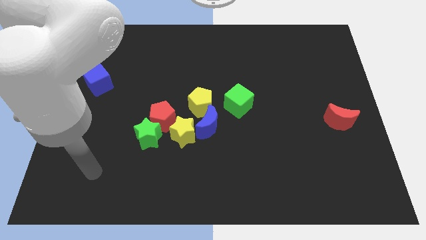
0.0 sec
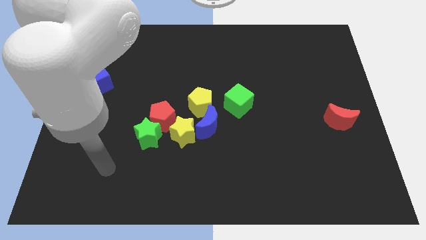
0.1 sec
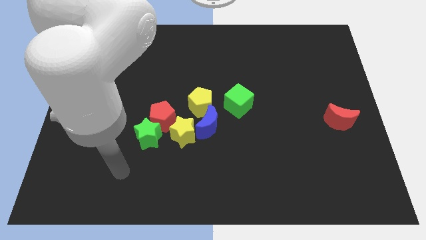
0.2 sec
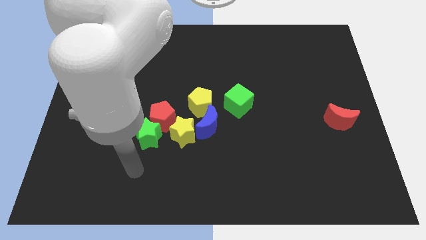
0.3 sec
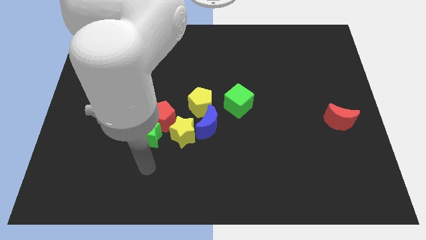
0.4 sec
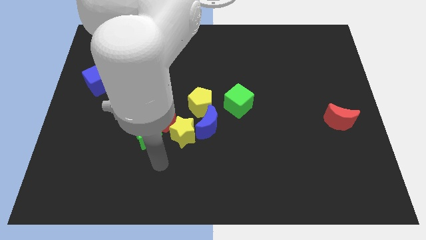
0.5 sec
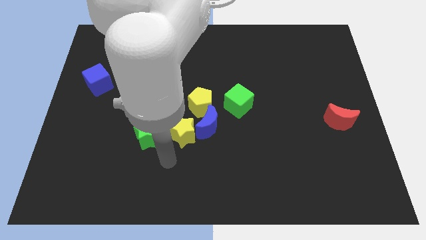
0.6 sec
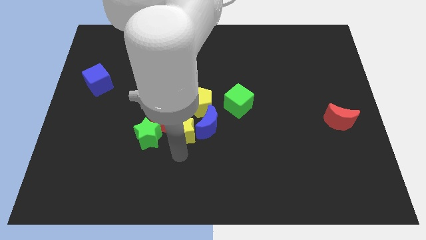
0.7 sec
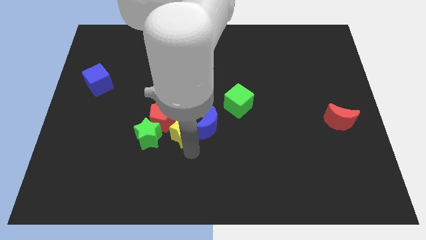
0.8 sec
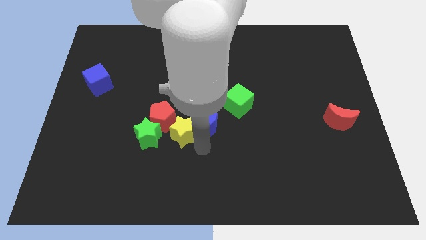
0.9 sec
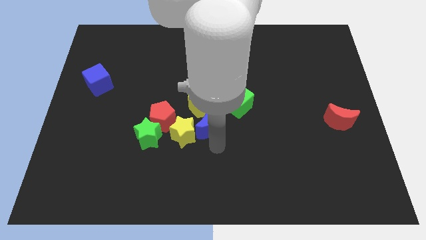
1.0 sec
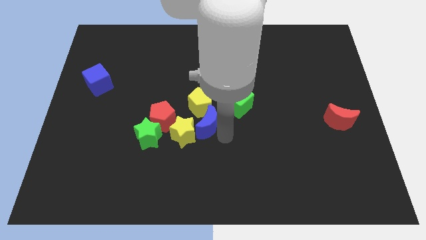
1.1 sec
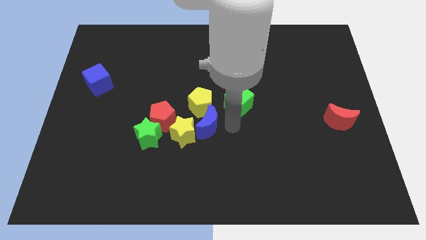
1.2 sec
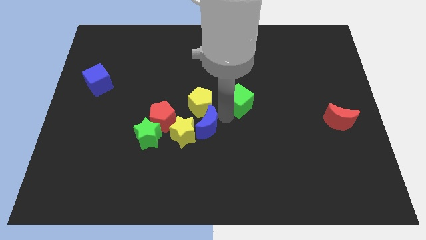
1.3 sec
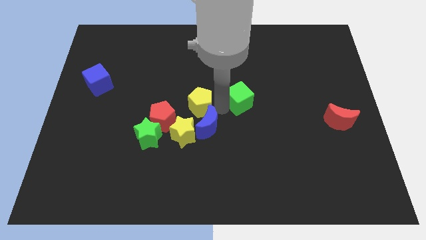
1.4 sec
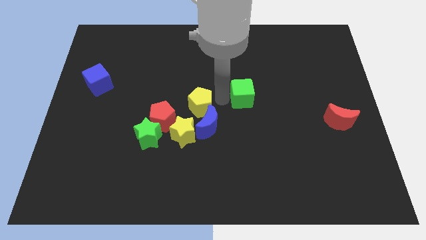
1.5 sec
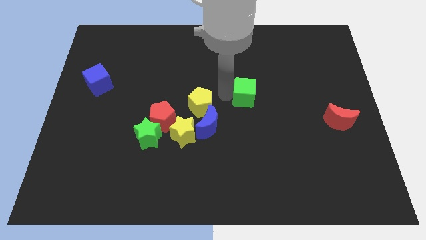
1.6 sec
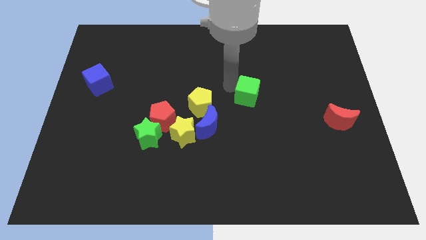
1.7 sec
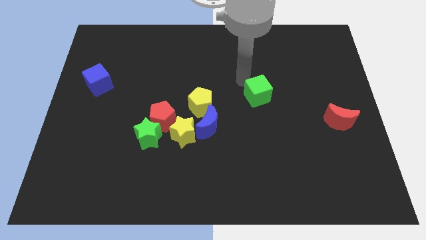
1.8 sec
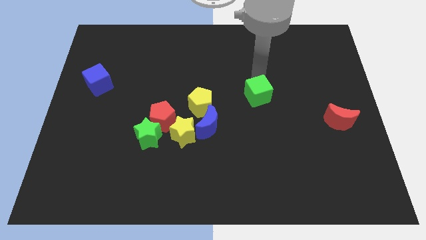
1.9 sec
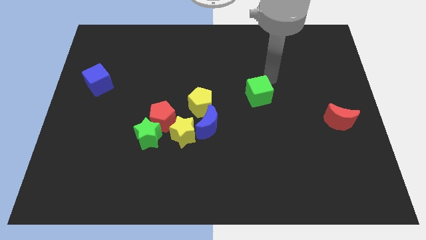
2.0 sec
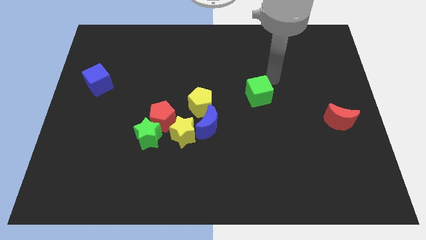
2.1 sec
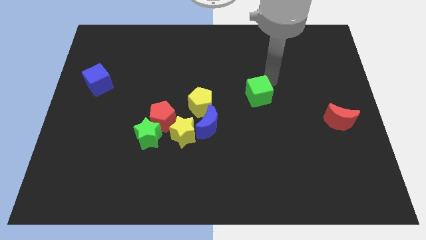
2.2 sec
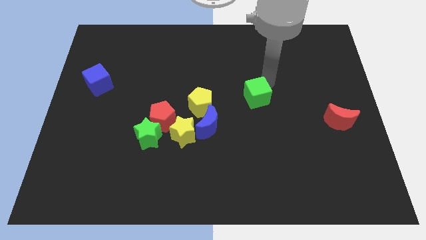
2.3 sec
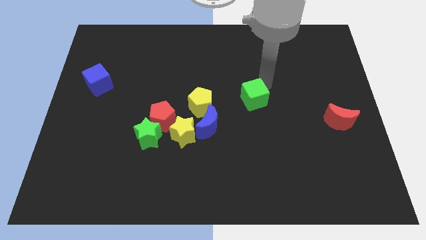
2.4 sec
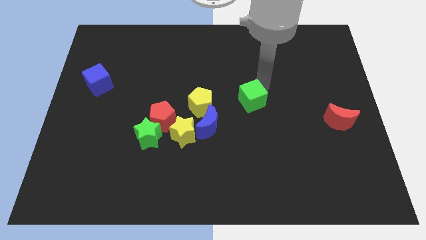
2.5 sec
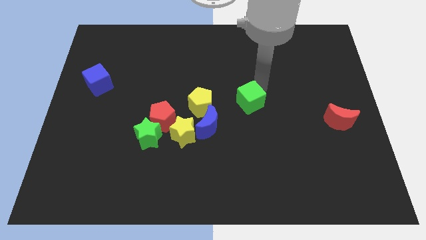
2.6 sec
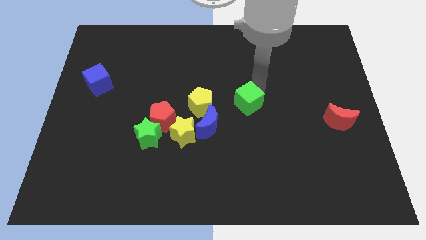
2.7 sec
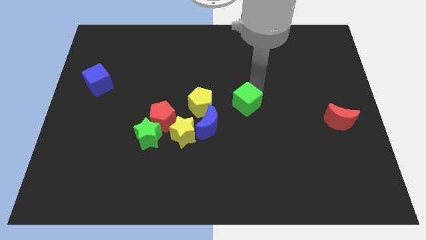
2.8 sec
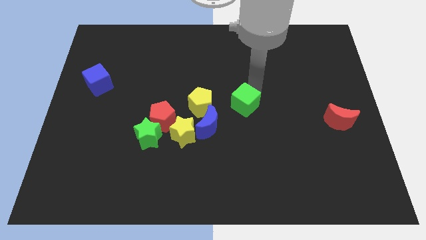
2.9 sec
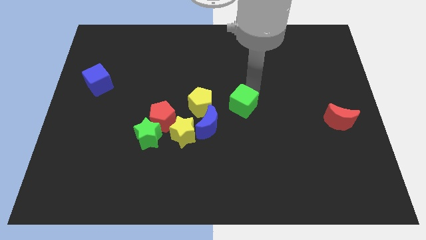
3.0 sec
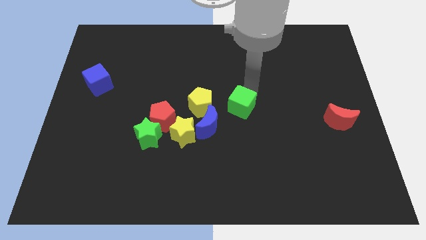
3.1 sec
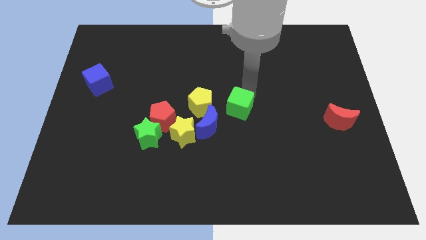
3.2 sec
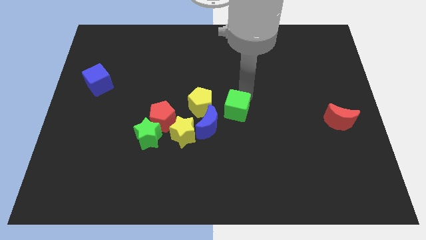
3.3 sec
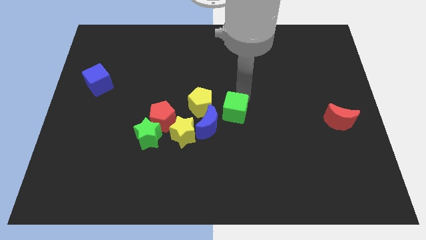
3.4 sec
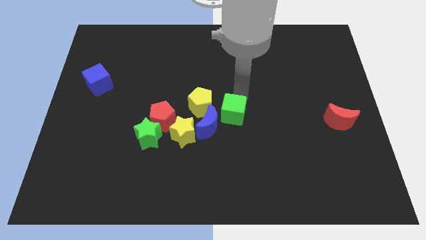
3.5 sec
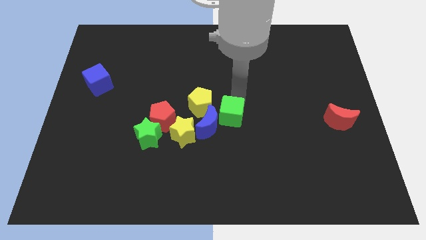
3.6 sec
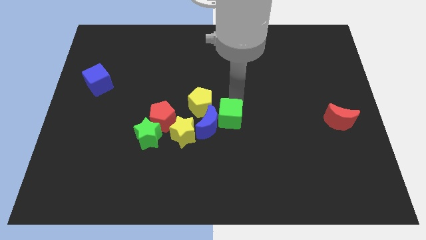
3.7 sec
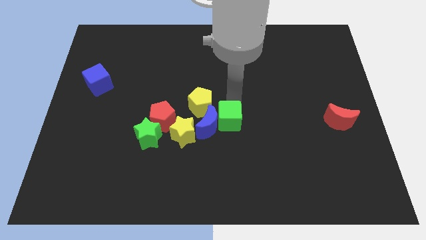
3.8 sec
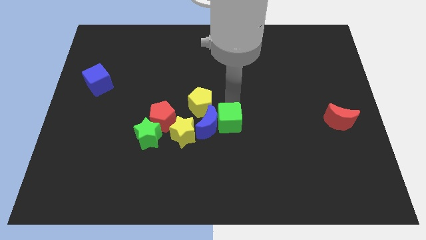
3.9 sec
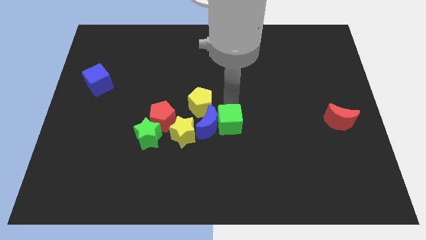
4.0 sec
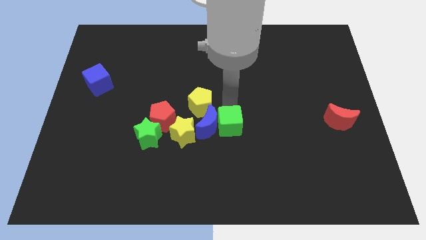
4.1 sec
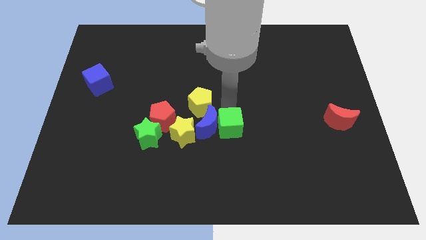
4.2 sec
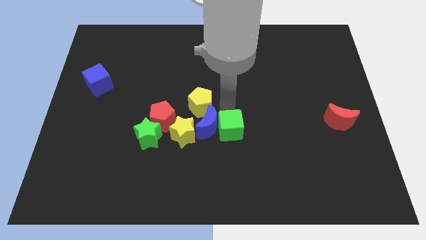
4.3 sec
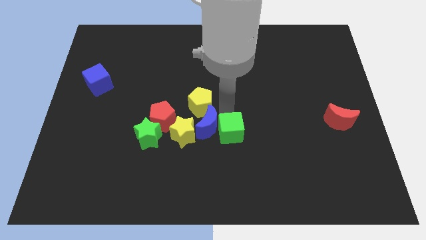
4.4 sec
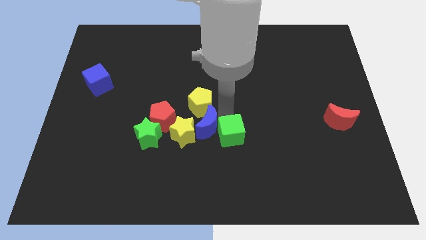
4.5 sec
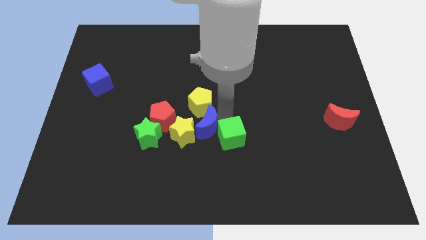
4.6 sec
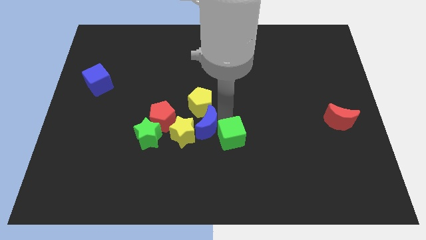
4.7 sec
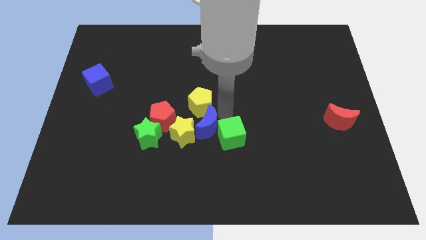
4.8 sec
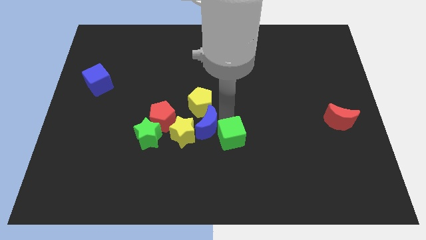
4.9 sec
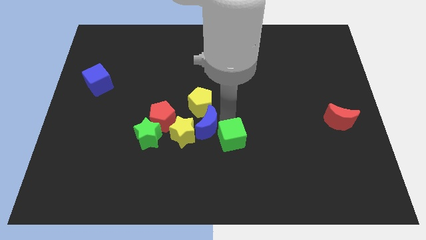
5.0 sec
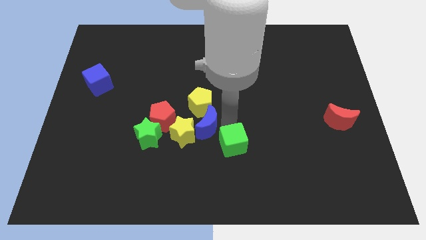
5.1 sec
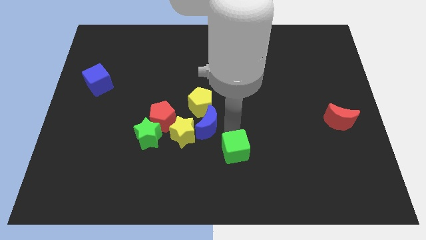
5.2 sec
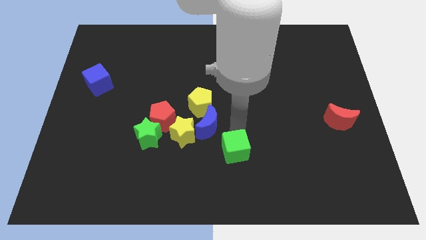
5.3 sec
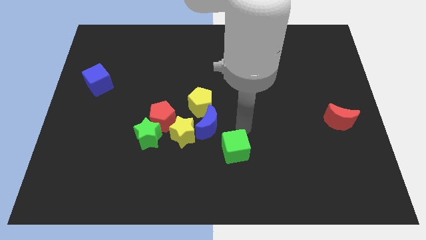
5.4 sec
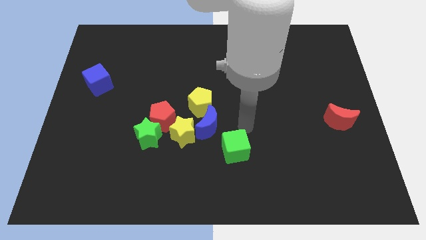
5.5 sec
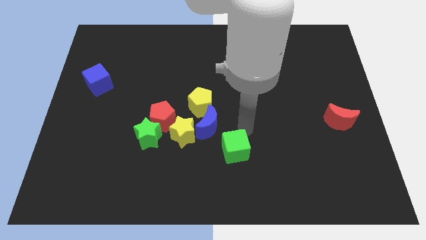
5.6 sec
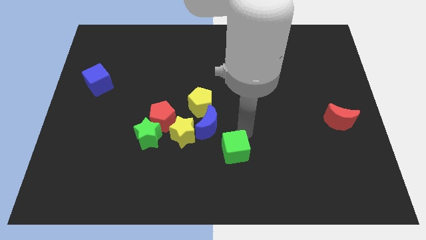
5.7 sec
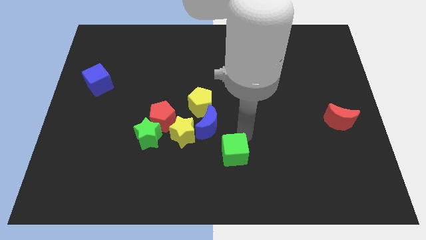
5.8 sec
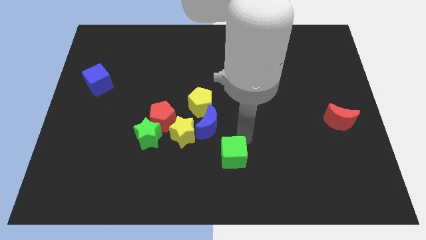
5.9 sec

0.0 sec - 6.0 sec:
put the green cube to the bottom

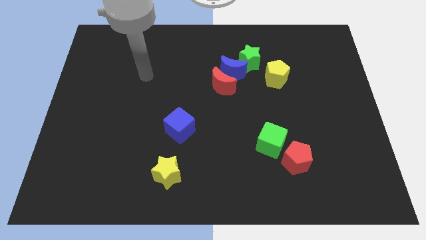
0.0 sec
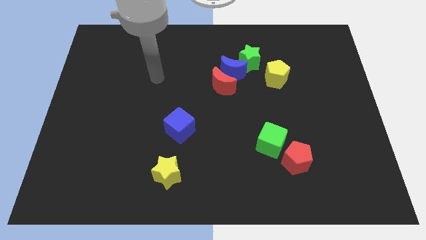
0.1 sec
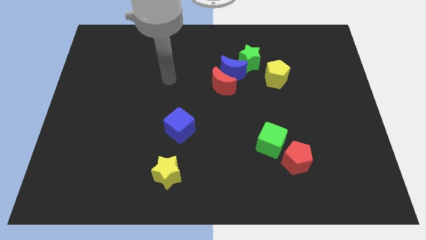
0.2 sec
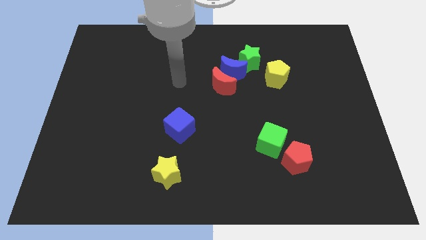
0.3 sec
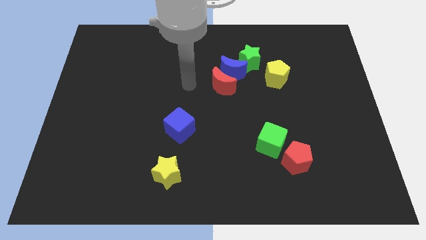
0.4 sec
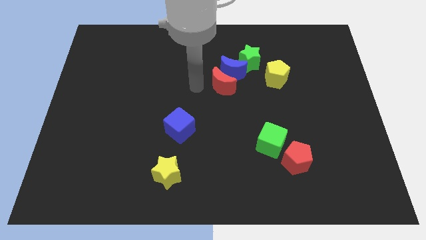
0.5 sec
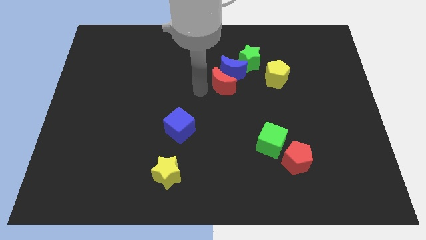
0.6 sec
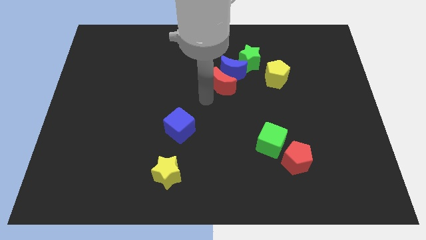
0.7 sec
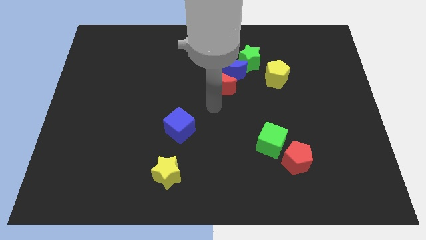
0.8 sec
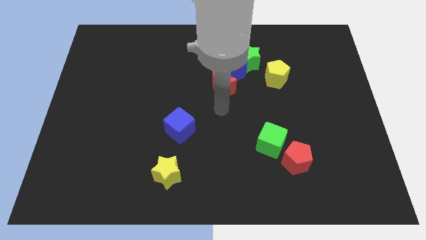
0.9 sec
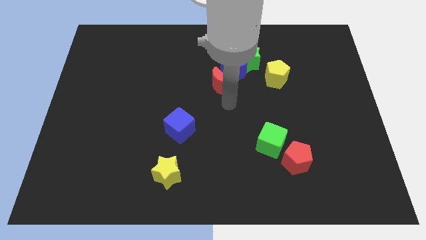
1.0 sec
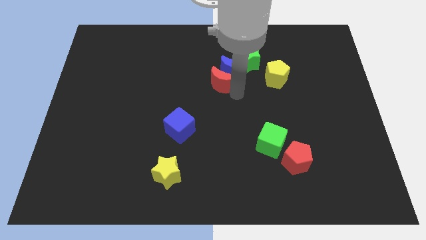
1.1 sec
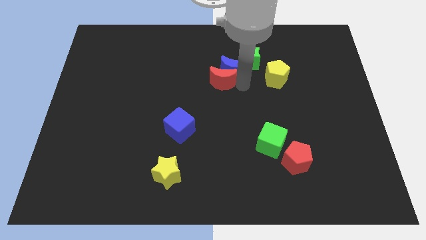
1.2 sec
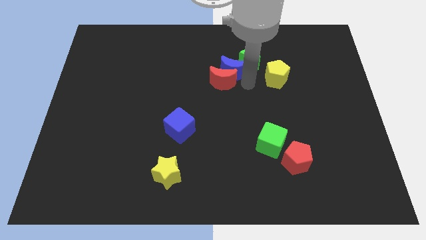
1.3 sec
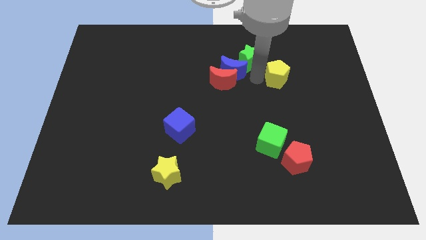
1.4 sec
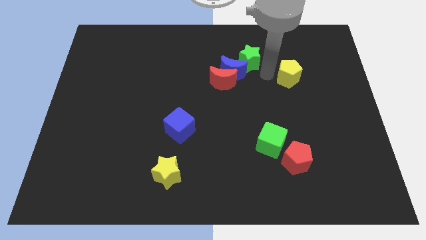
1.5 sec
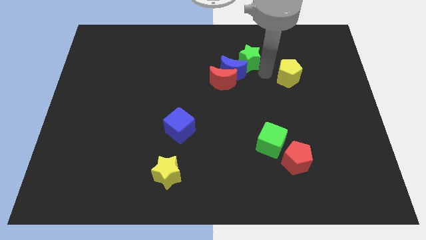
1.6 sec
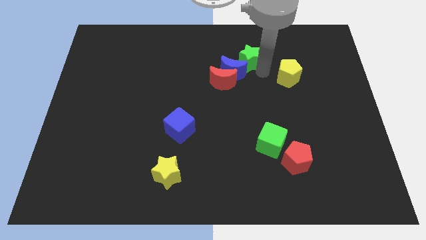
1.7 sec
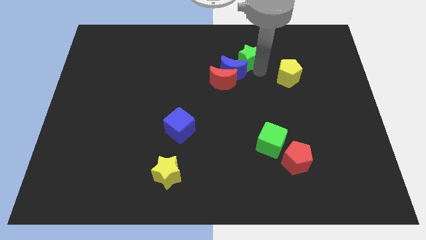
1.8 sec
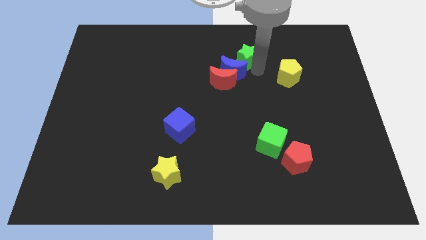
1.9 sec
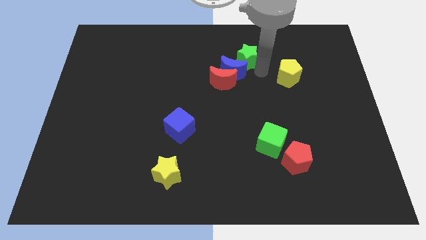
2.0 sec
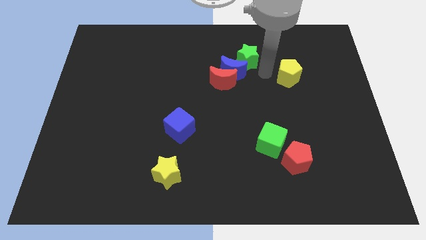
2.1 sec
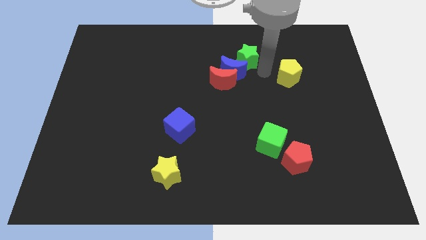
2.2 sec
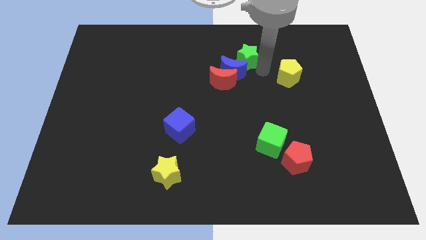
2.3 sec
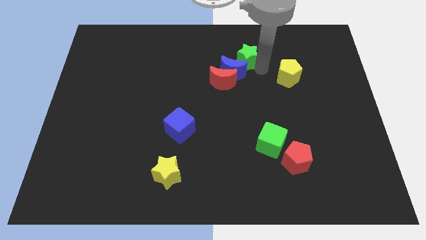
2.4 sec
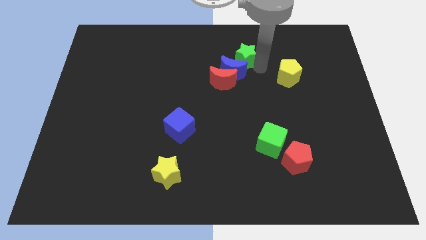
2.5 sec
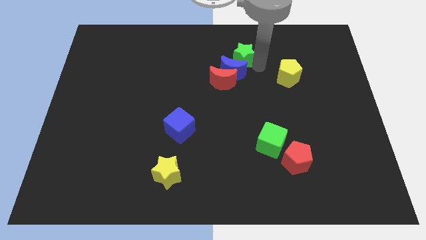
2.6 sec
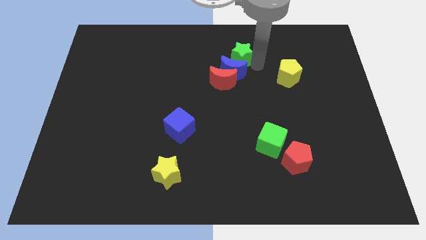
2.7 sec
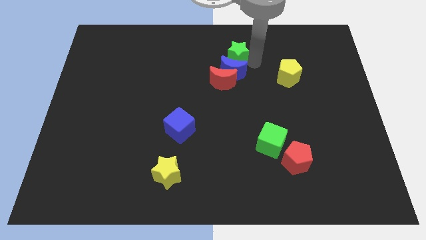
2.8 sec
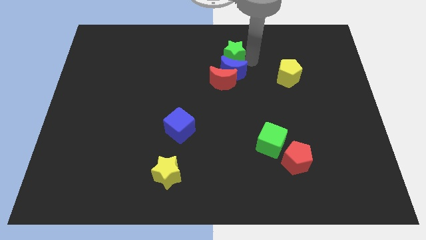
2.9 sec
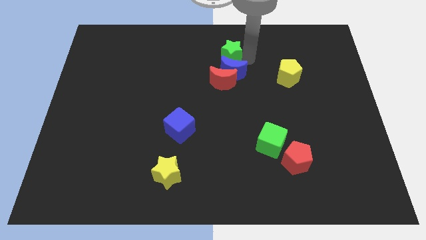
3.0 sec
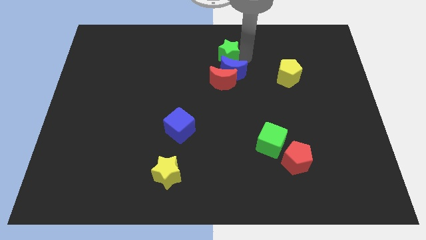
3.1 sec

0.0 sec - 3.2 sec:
move the green star to the top
